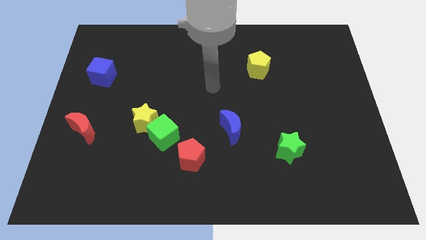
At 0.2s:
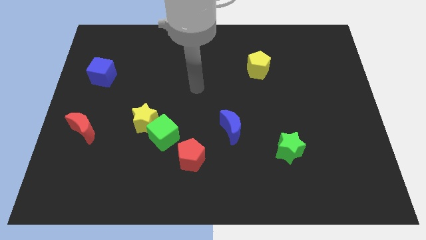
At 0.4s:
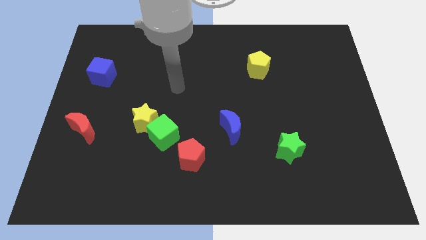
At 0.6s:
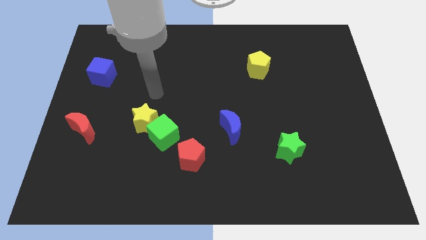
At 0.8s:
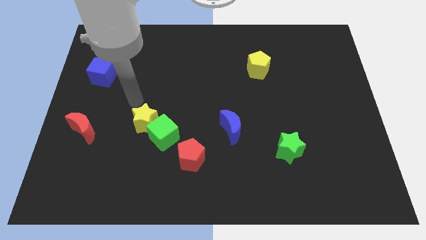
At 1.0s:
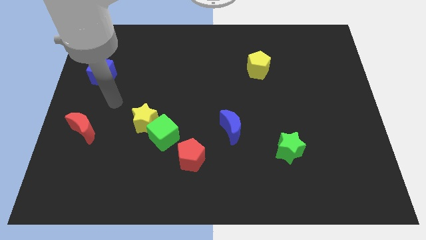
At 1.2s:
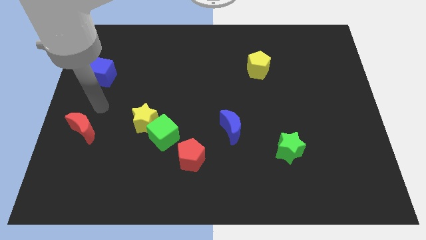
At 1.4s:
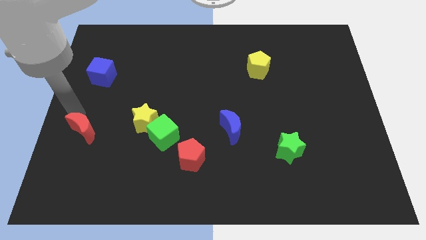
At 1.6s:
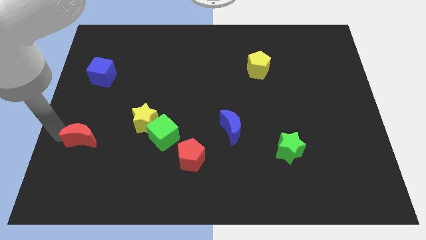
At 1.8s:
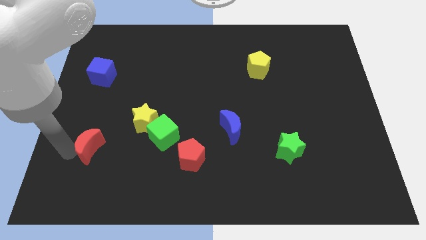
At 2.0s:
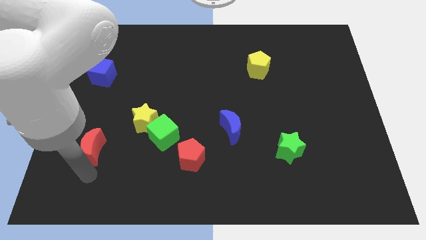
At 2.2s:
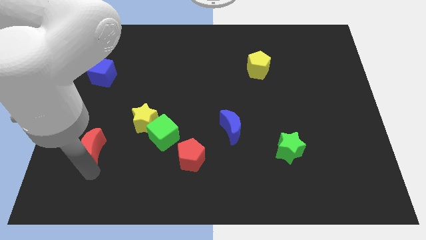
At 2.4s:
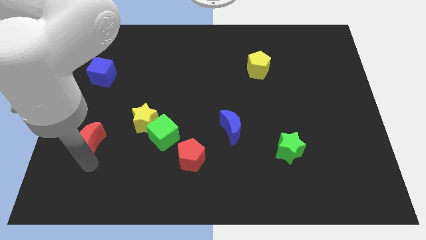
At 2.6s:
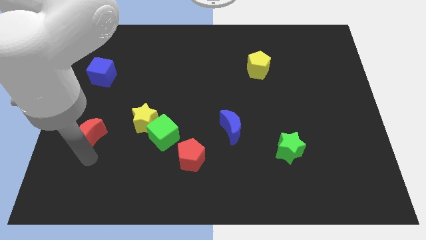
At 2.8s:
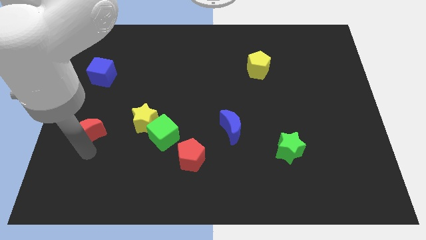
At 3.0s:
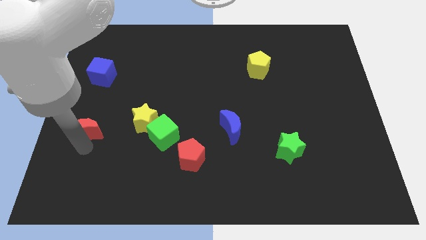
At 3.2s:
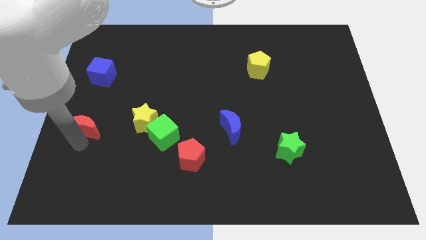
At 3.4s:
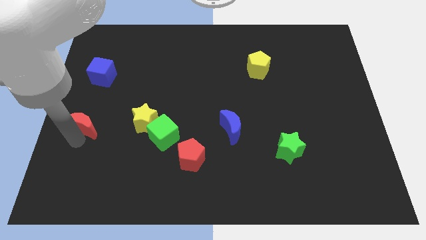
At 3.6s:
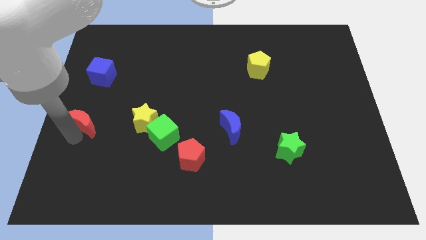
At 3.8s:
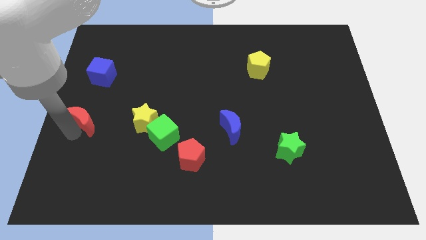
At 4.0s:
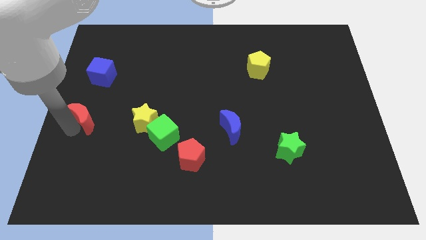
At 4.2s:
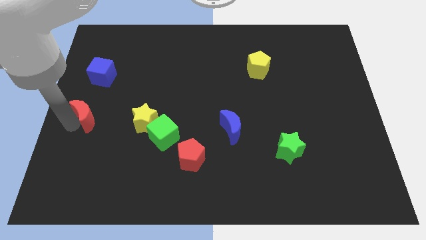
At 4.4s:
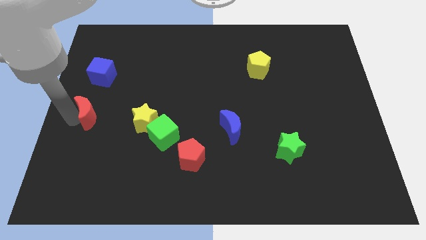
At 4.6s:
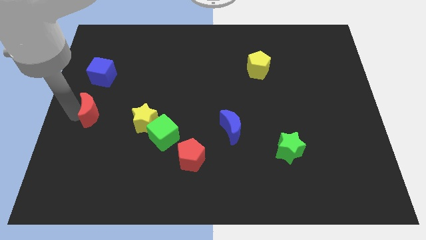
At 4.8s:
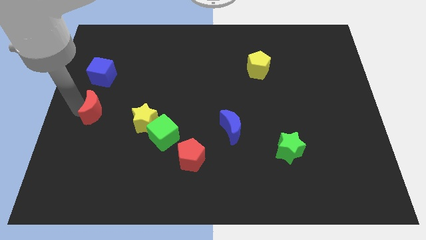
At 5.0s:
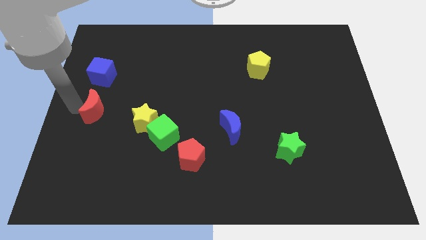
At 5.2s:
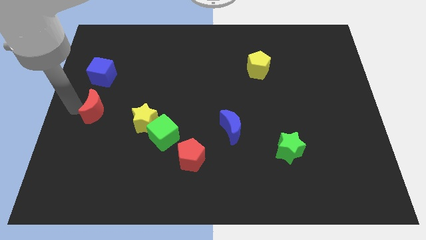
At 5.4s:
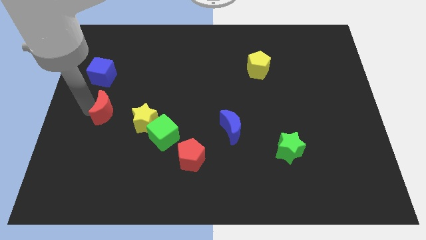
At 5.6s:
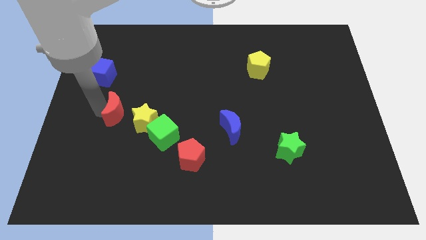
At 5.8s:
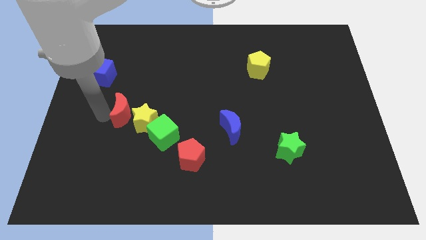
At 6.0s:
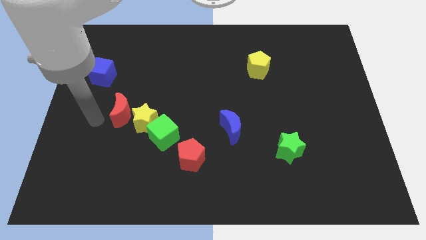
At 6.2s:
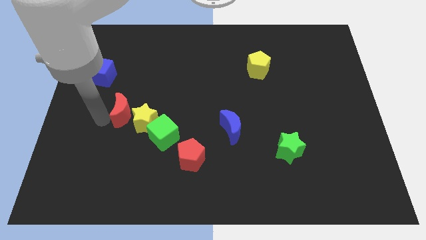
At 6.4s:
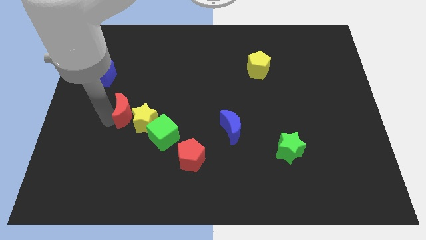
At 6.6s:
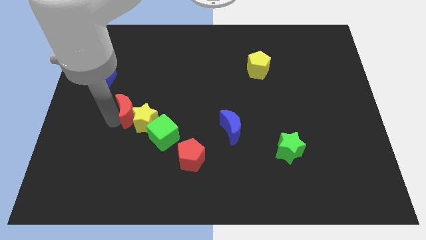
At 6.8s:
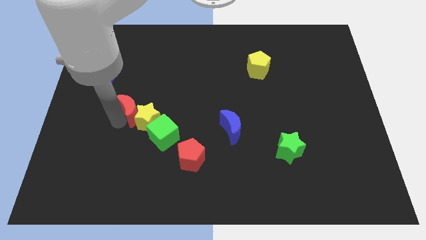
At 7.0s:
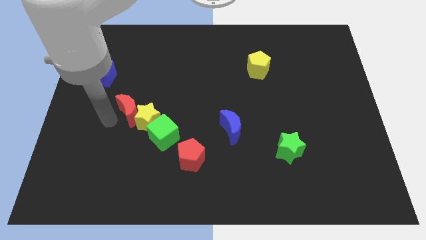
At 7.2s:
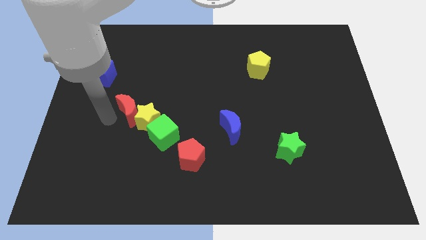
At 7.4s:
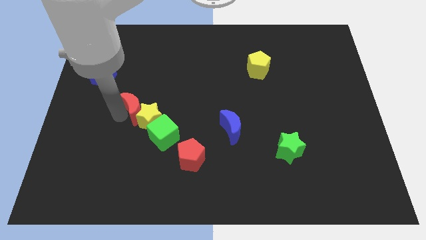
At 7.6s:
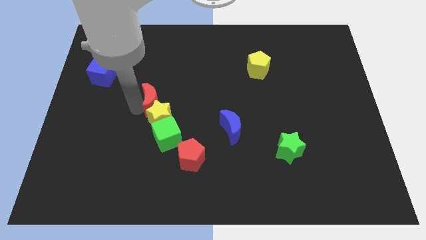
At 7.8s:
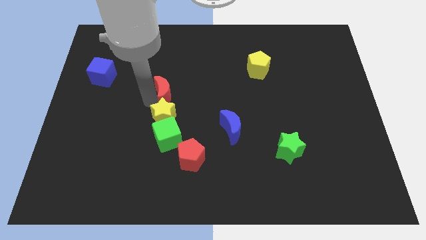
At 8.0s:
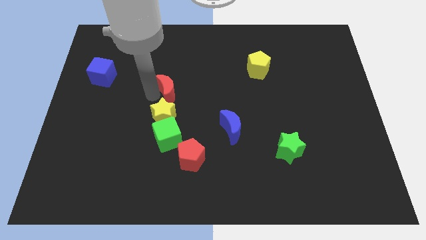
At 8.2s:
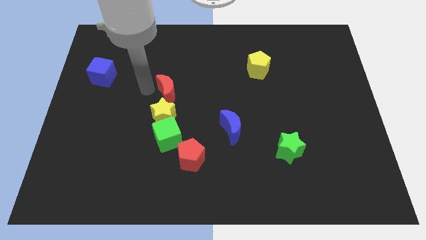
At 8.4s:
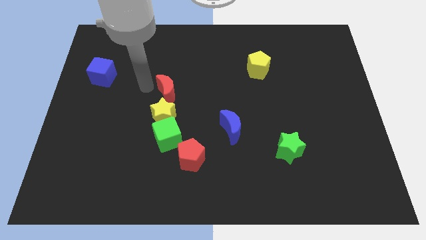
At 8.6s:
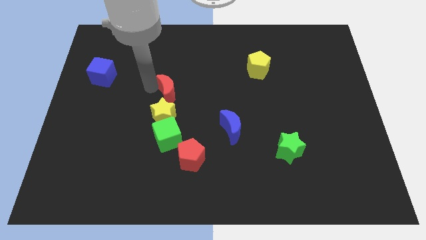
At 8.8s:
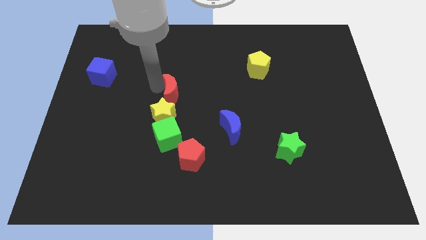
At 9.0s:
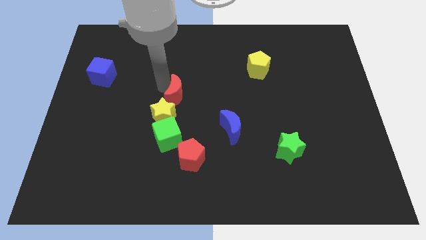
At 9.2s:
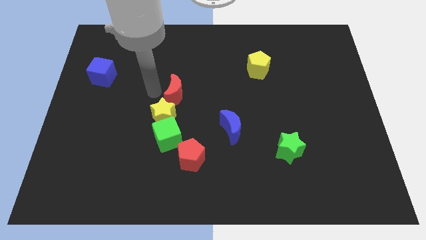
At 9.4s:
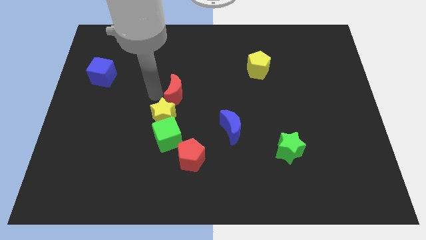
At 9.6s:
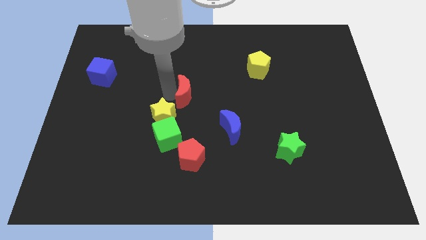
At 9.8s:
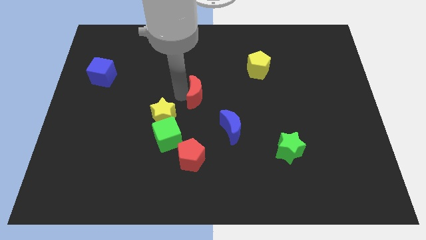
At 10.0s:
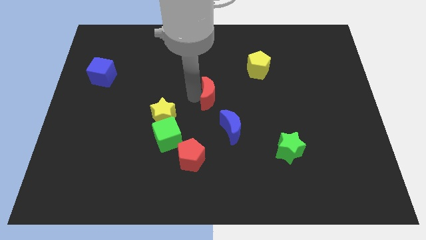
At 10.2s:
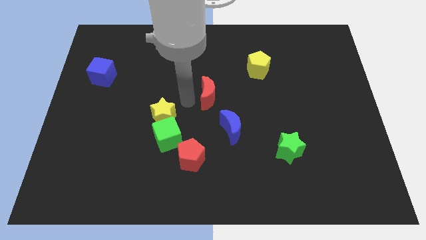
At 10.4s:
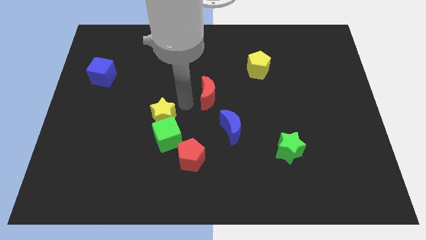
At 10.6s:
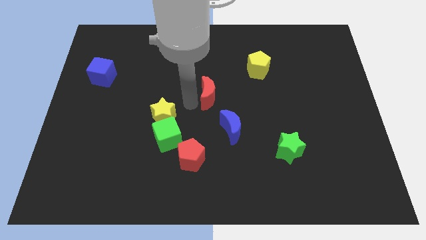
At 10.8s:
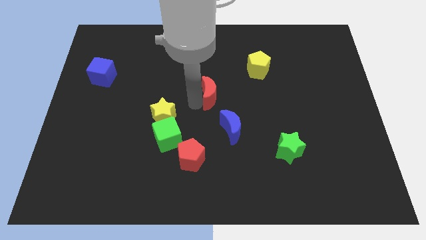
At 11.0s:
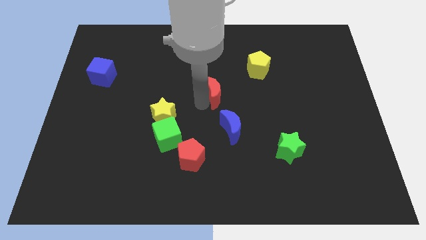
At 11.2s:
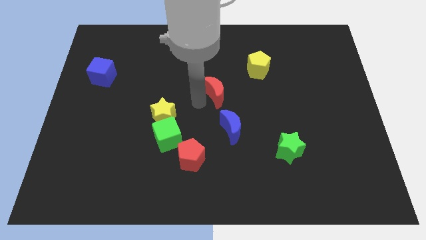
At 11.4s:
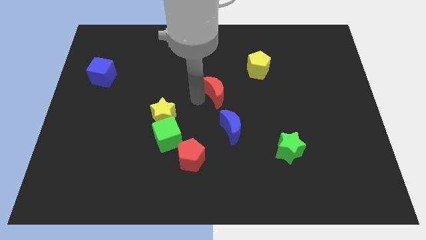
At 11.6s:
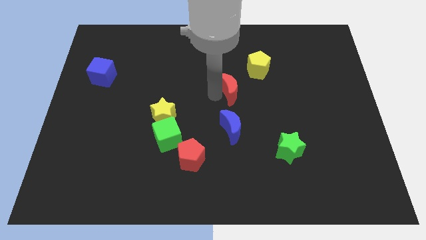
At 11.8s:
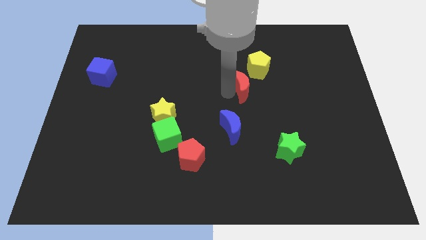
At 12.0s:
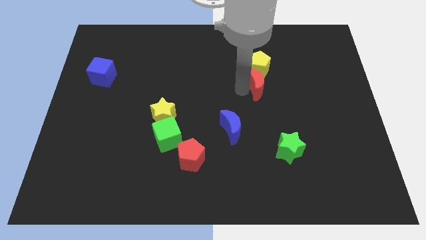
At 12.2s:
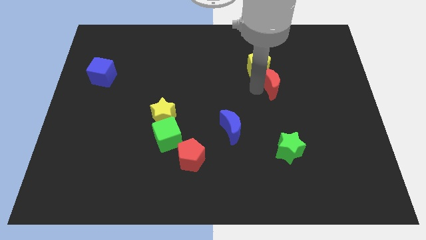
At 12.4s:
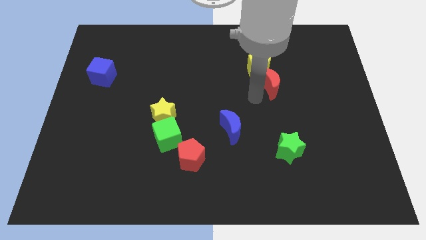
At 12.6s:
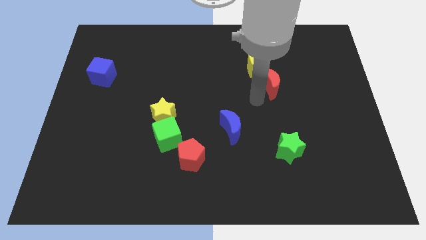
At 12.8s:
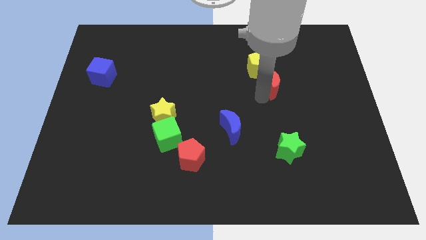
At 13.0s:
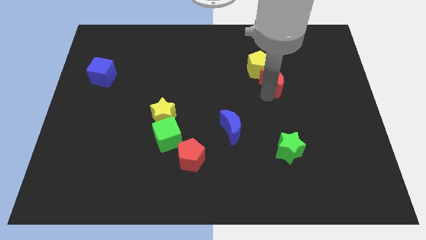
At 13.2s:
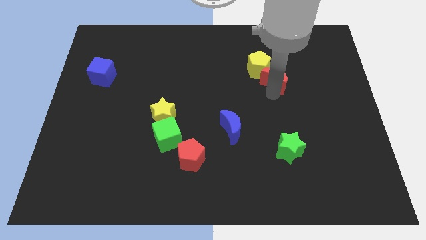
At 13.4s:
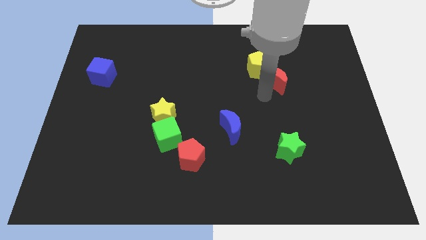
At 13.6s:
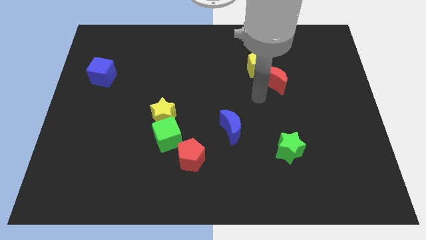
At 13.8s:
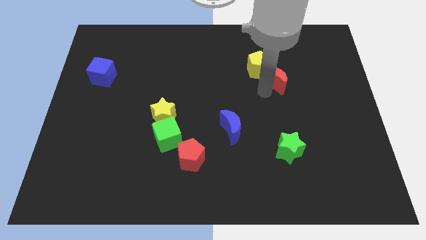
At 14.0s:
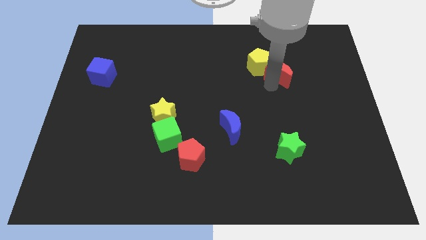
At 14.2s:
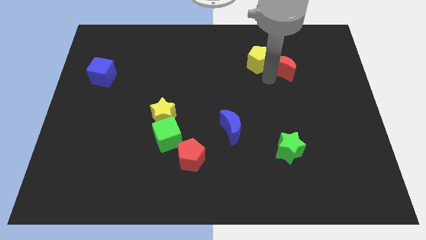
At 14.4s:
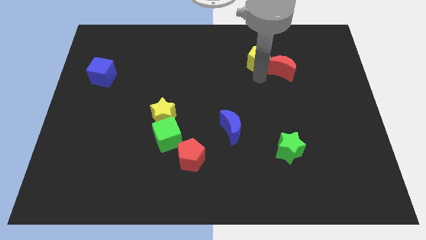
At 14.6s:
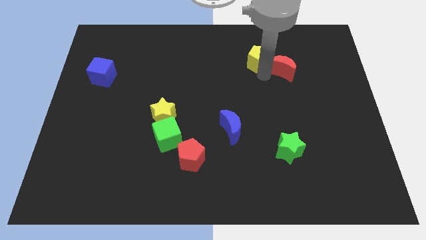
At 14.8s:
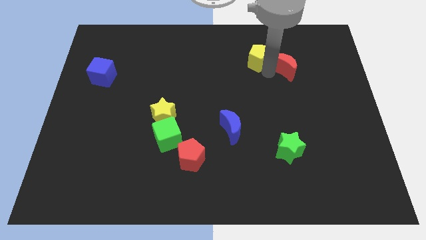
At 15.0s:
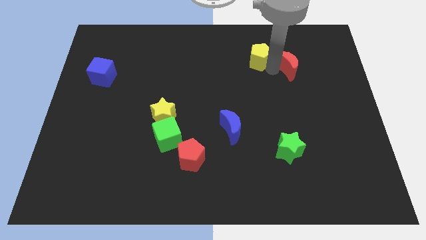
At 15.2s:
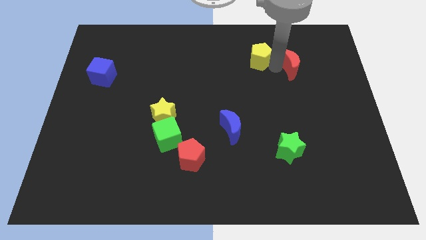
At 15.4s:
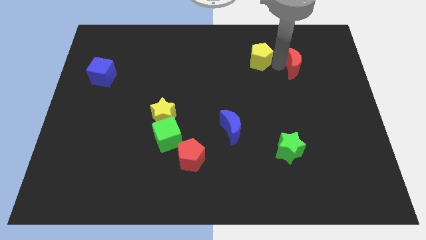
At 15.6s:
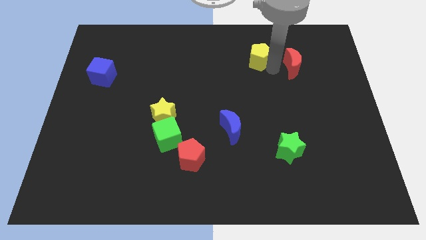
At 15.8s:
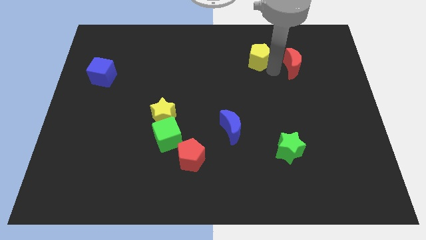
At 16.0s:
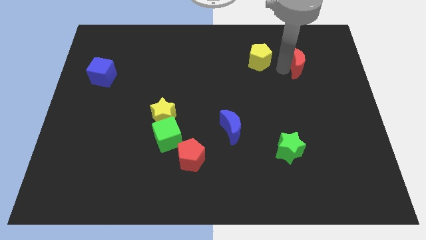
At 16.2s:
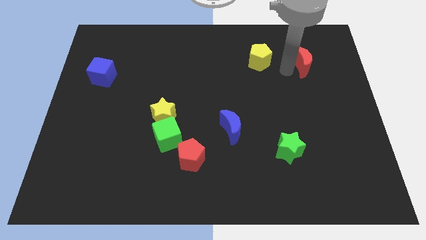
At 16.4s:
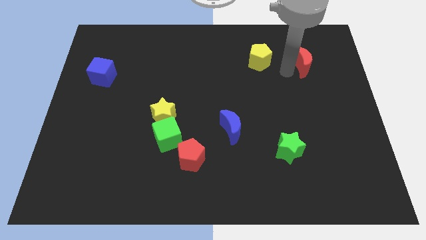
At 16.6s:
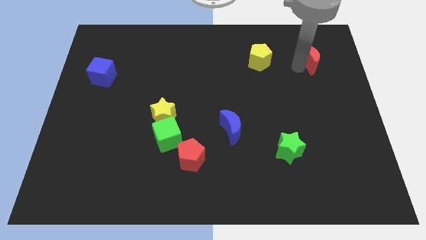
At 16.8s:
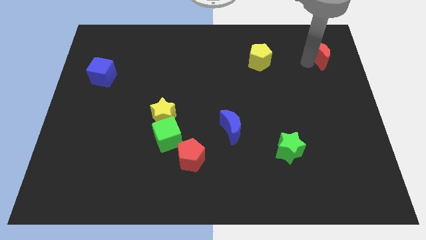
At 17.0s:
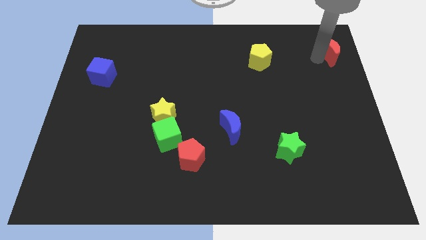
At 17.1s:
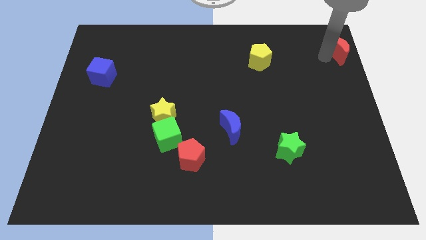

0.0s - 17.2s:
slide the red moon to the top right
